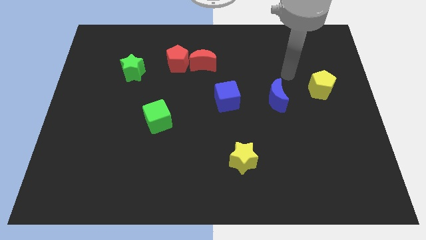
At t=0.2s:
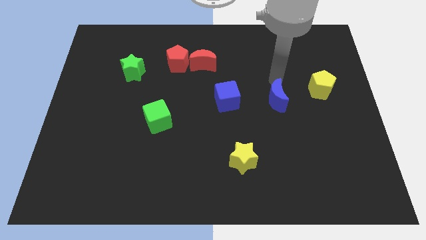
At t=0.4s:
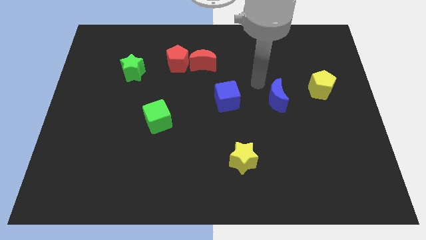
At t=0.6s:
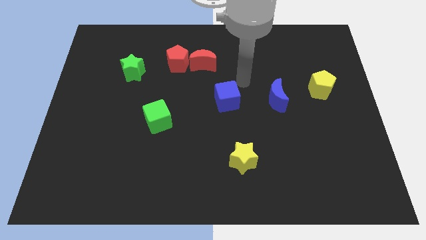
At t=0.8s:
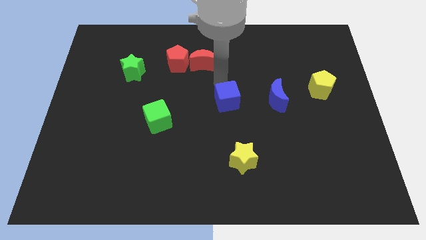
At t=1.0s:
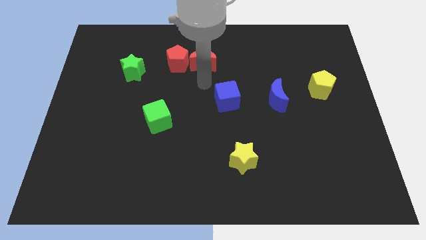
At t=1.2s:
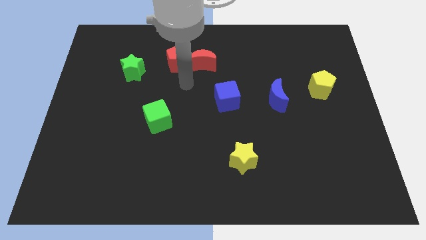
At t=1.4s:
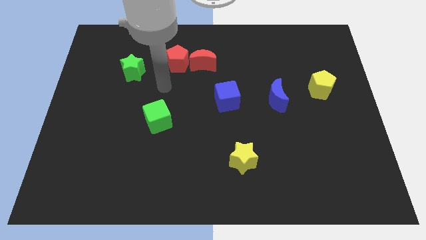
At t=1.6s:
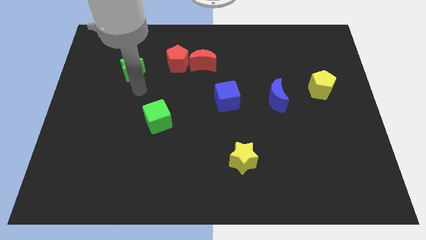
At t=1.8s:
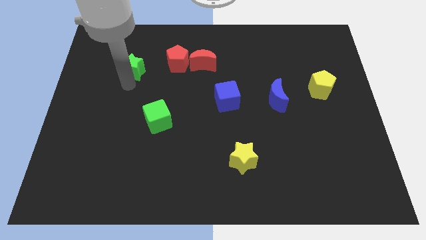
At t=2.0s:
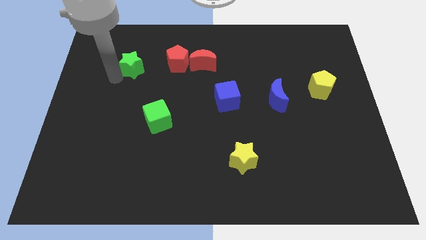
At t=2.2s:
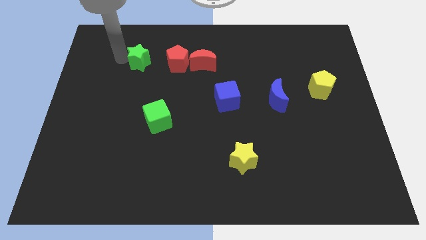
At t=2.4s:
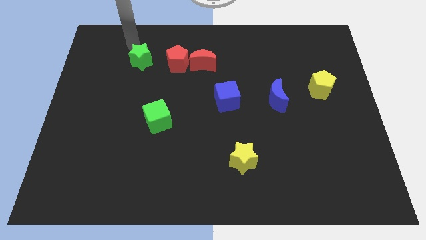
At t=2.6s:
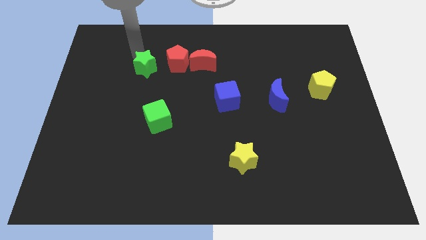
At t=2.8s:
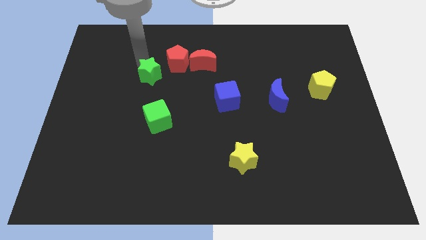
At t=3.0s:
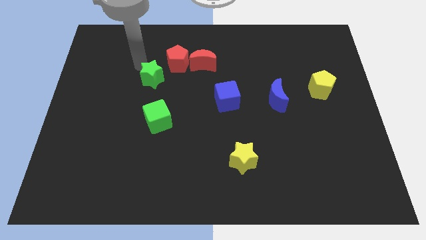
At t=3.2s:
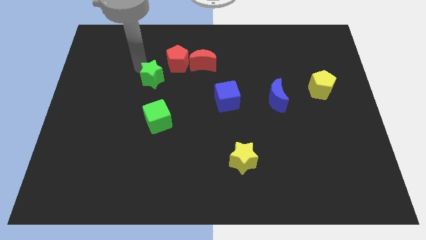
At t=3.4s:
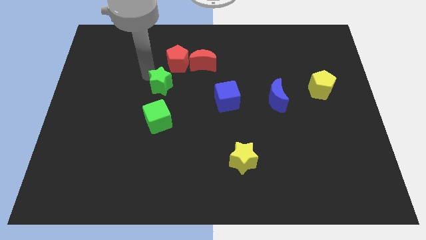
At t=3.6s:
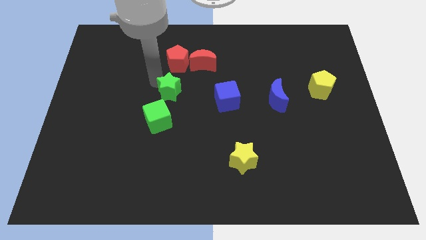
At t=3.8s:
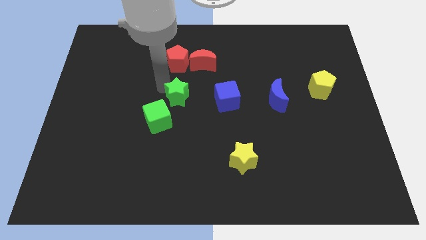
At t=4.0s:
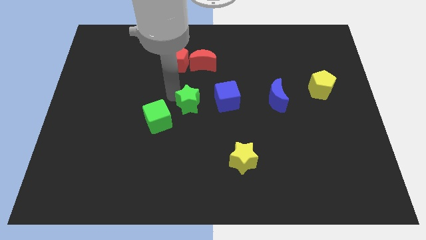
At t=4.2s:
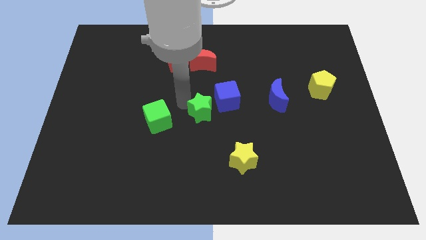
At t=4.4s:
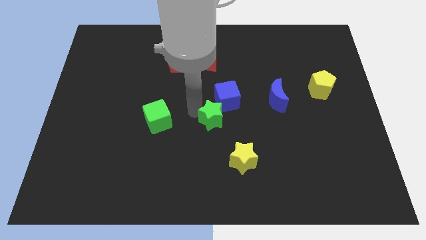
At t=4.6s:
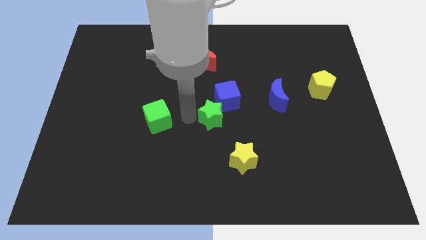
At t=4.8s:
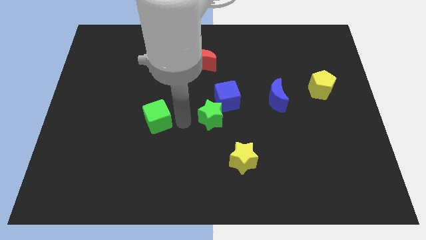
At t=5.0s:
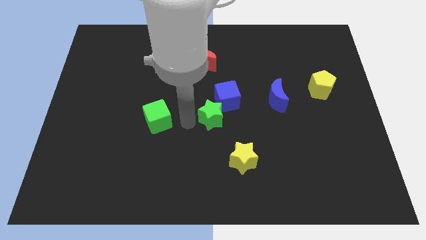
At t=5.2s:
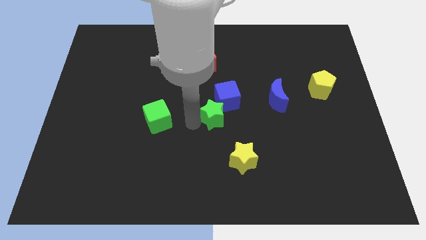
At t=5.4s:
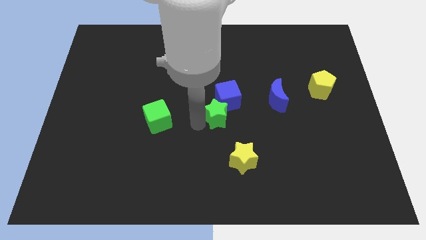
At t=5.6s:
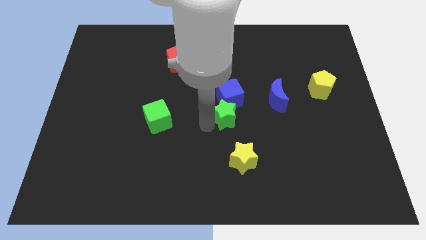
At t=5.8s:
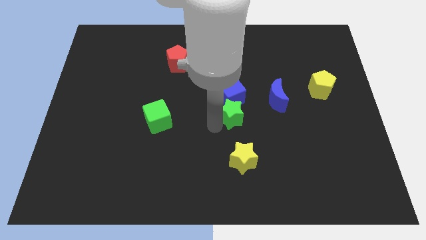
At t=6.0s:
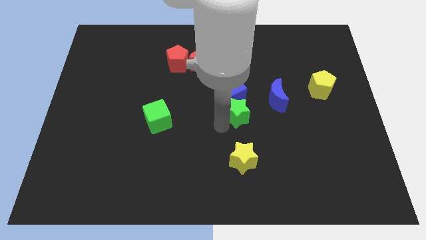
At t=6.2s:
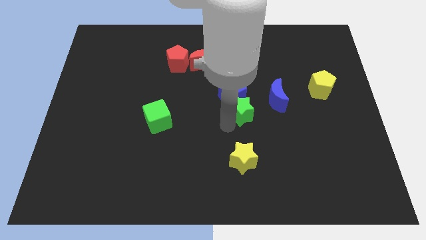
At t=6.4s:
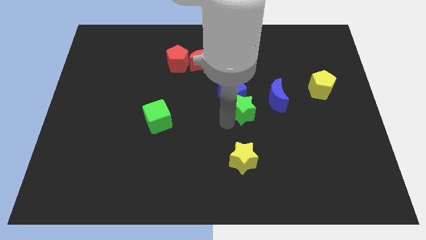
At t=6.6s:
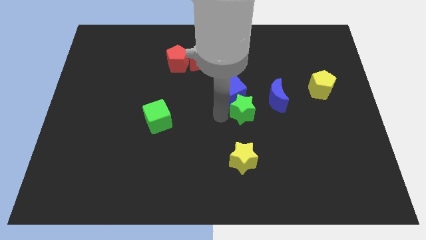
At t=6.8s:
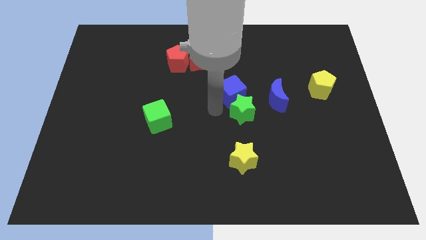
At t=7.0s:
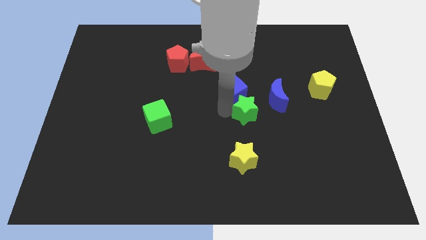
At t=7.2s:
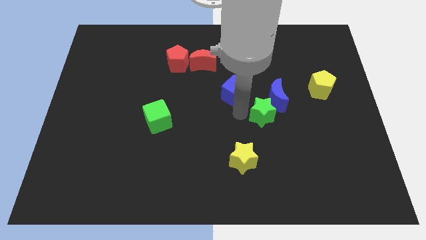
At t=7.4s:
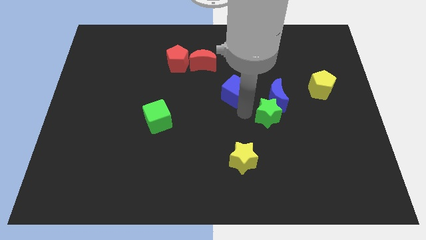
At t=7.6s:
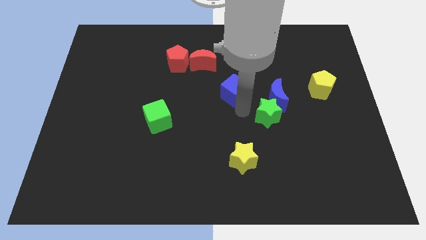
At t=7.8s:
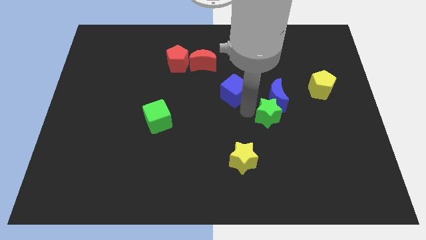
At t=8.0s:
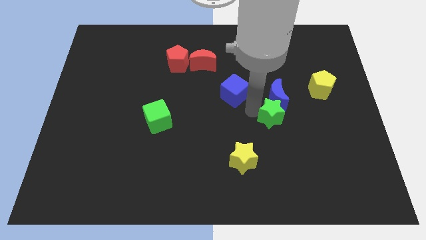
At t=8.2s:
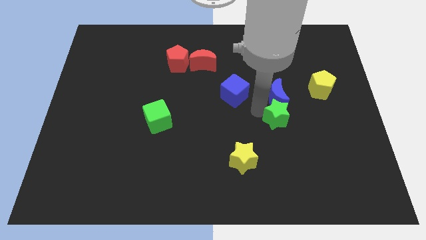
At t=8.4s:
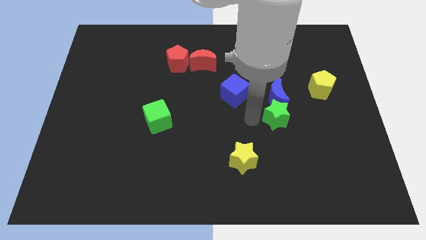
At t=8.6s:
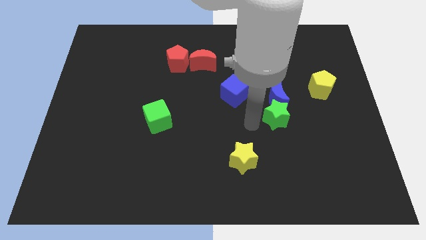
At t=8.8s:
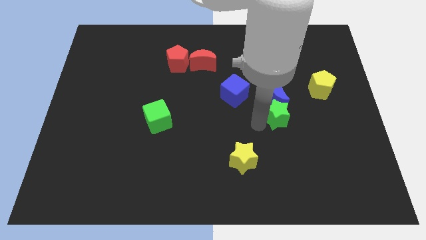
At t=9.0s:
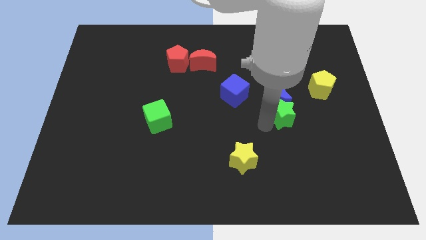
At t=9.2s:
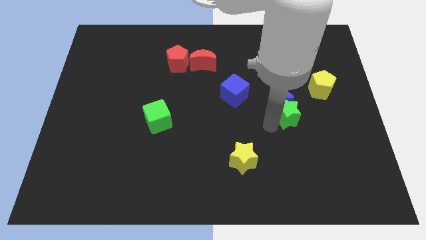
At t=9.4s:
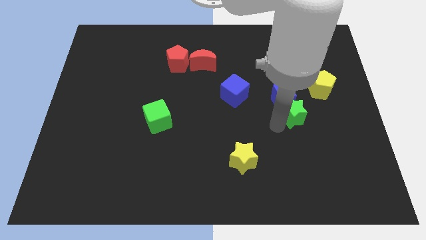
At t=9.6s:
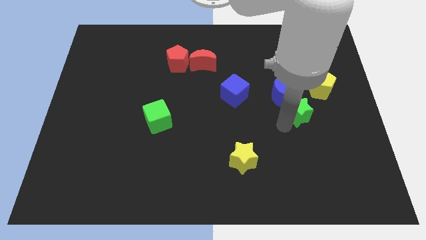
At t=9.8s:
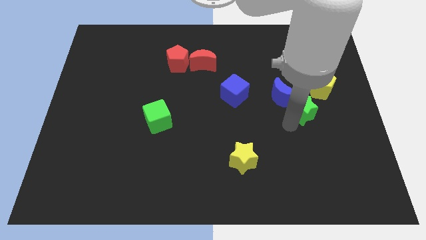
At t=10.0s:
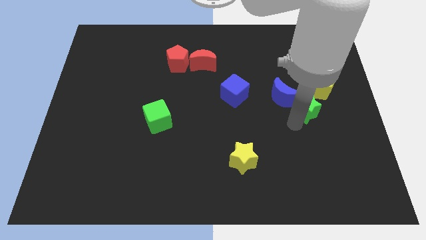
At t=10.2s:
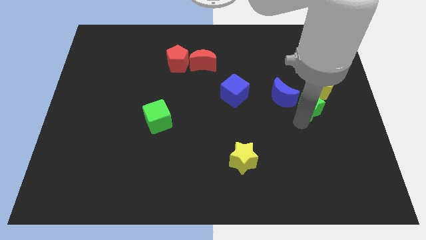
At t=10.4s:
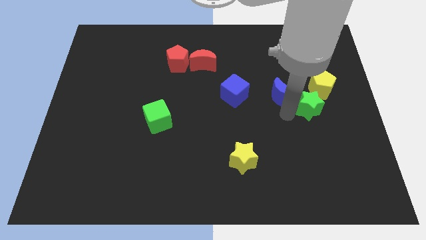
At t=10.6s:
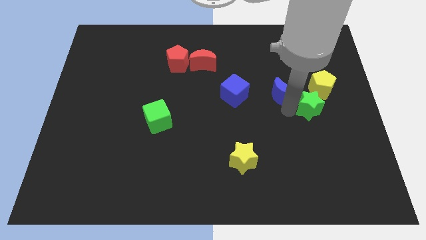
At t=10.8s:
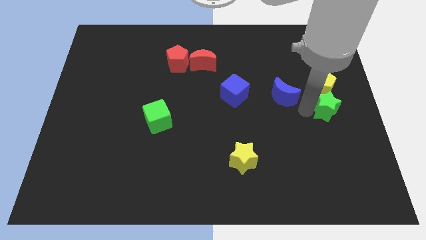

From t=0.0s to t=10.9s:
put the green star to the right side

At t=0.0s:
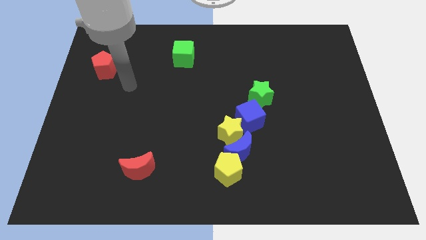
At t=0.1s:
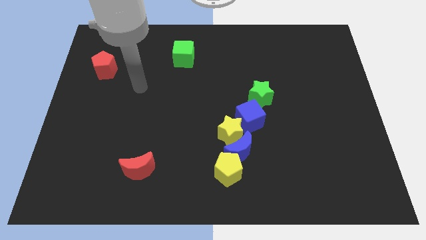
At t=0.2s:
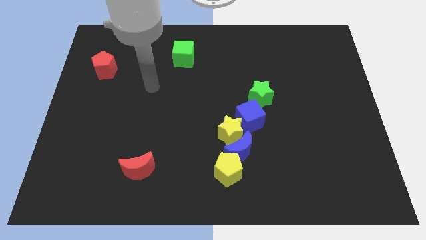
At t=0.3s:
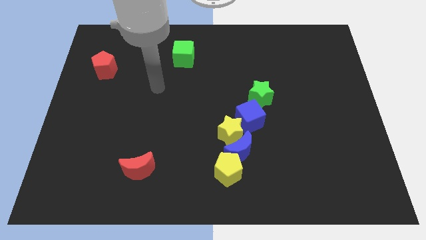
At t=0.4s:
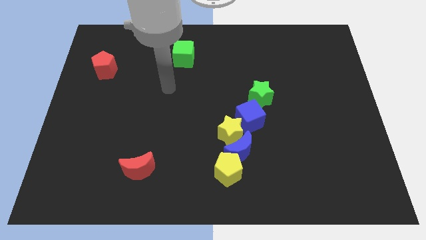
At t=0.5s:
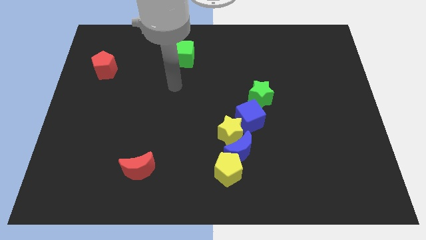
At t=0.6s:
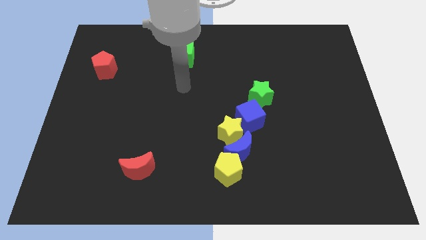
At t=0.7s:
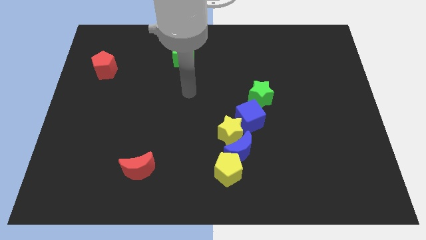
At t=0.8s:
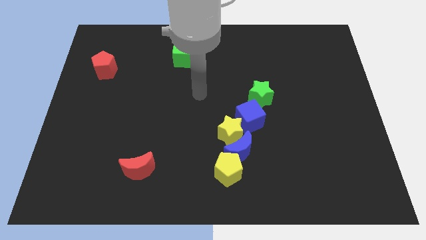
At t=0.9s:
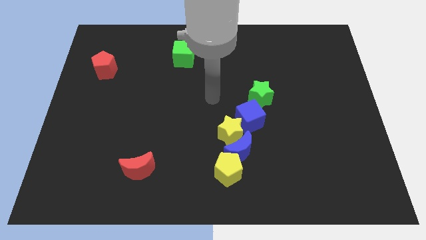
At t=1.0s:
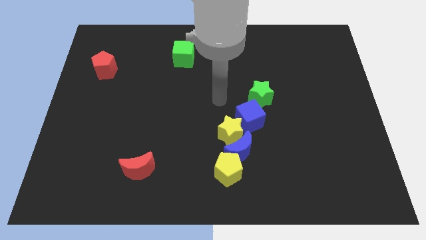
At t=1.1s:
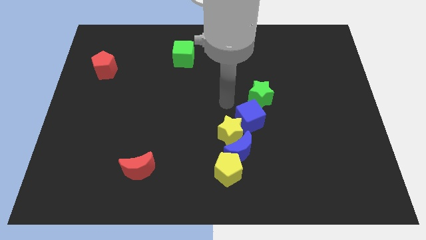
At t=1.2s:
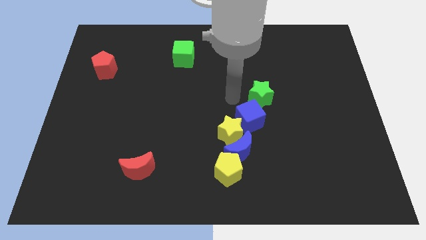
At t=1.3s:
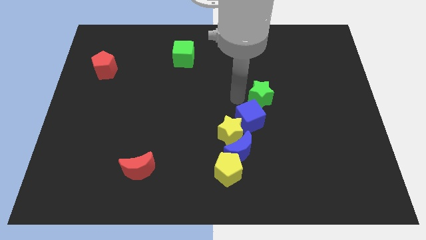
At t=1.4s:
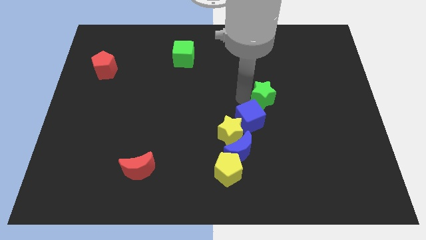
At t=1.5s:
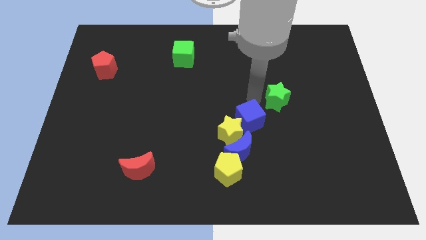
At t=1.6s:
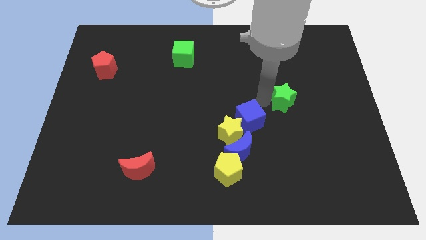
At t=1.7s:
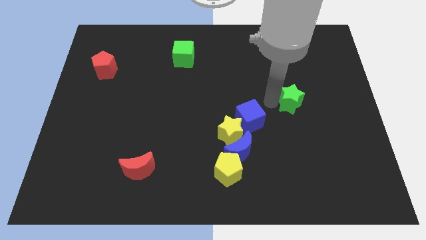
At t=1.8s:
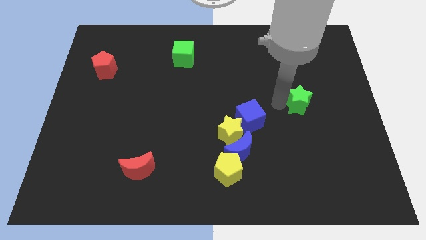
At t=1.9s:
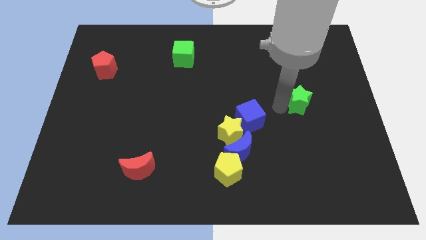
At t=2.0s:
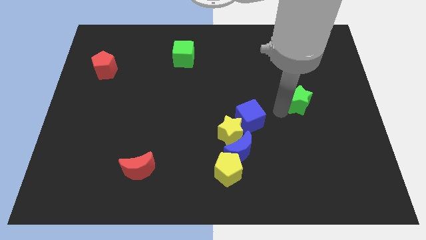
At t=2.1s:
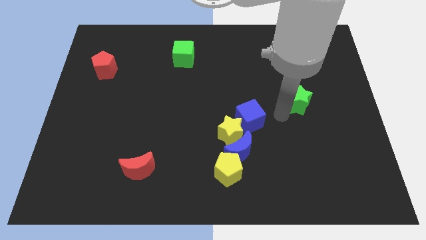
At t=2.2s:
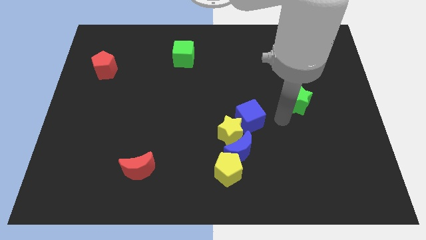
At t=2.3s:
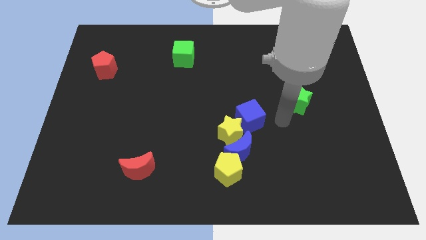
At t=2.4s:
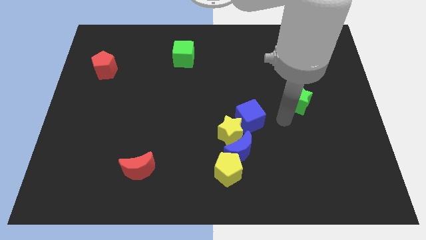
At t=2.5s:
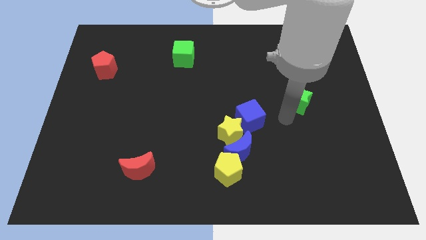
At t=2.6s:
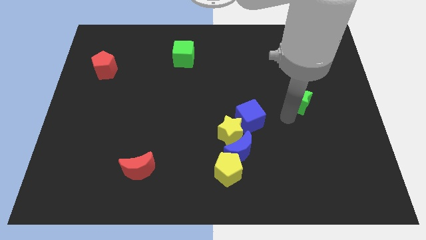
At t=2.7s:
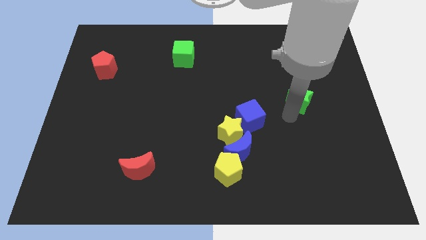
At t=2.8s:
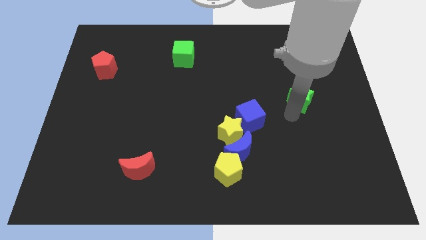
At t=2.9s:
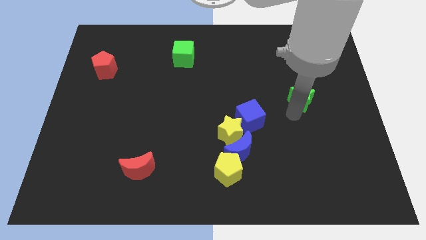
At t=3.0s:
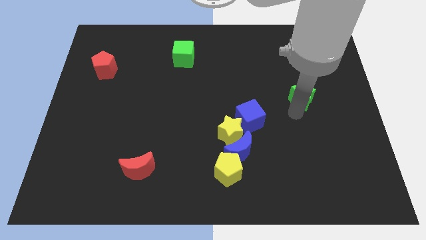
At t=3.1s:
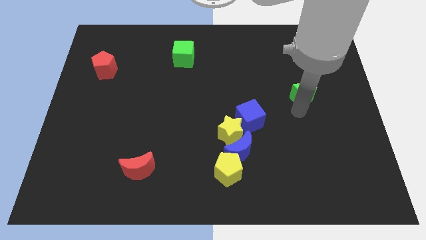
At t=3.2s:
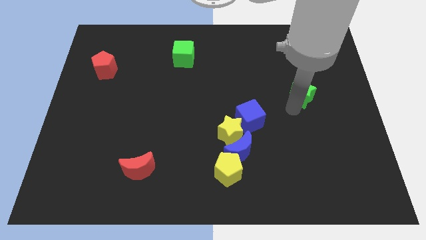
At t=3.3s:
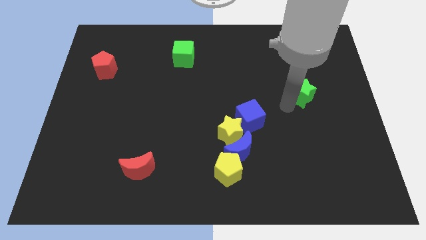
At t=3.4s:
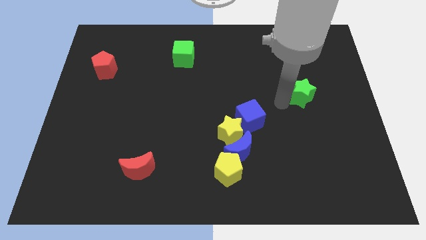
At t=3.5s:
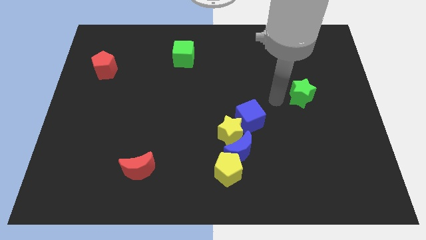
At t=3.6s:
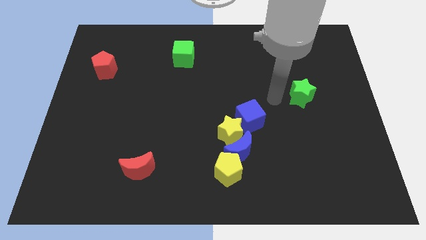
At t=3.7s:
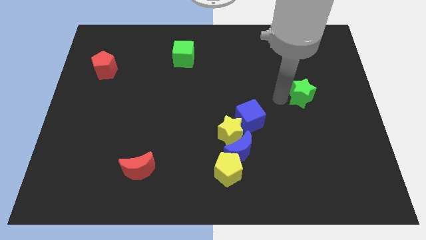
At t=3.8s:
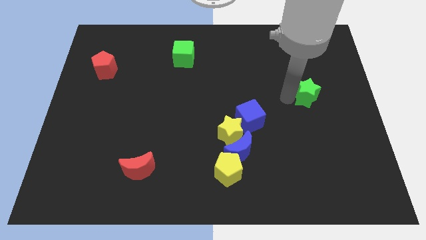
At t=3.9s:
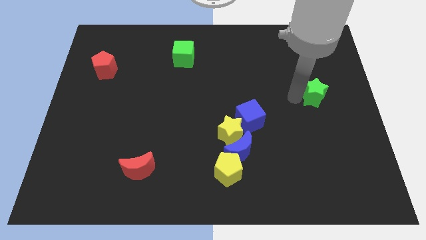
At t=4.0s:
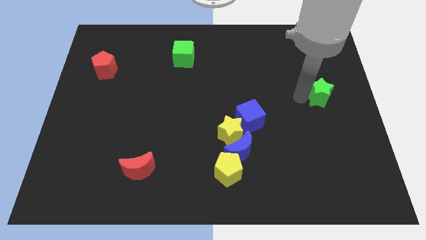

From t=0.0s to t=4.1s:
slide the green star to the right side of the board
